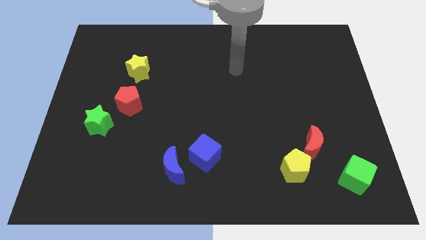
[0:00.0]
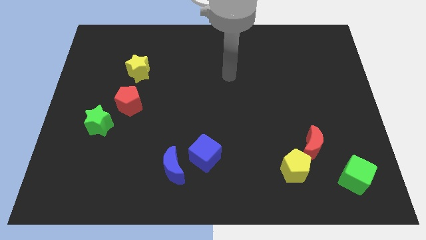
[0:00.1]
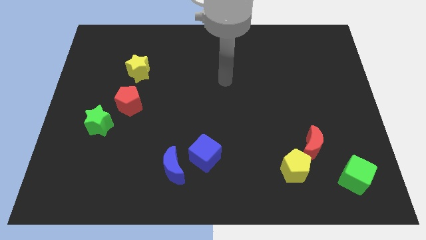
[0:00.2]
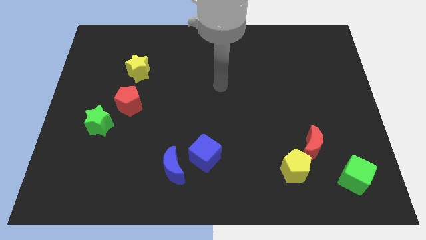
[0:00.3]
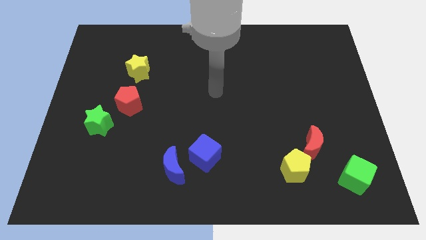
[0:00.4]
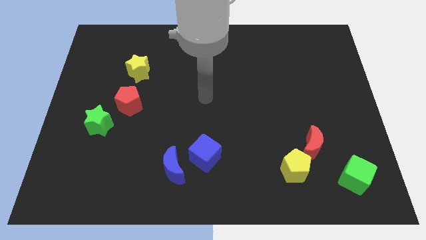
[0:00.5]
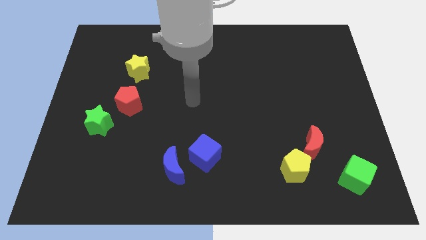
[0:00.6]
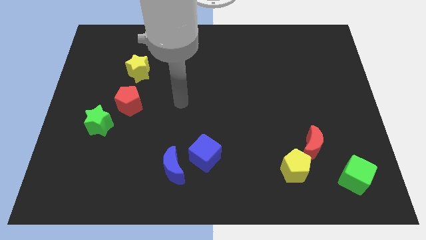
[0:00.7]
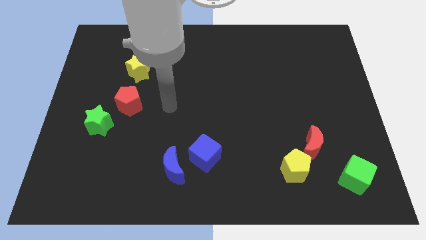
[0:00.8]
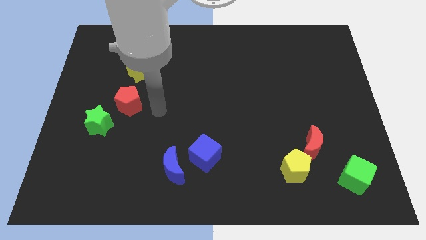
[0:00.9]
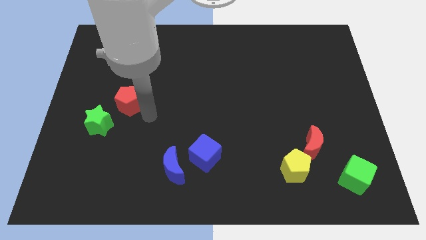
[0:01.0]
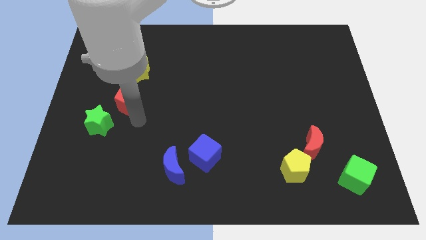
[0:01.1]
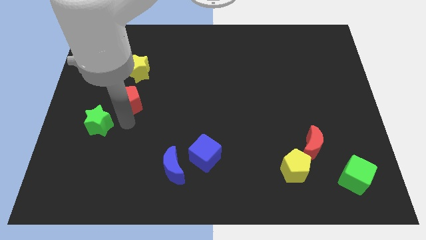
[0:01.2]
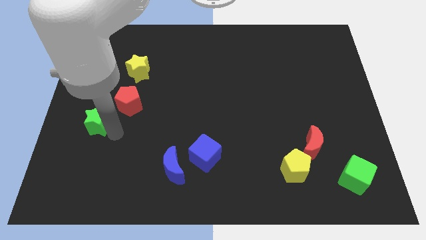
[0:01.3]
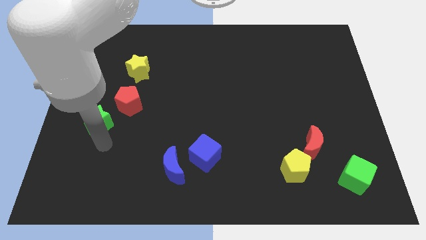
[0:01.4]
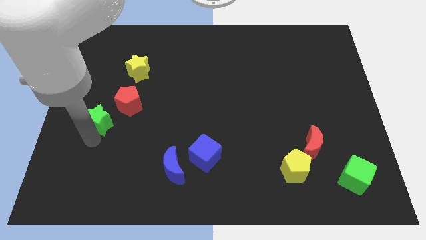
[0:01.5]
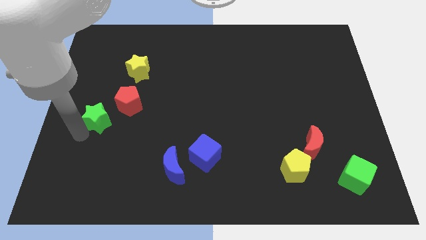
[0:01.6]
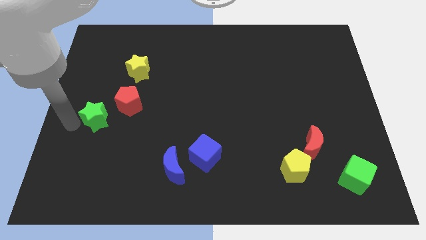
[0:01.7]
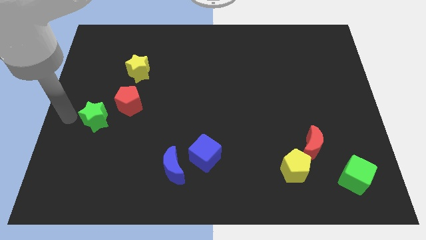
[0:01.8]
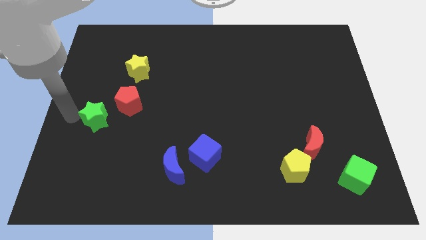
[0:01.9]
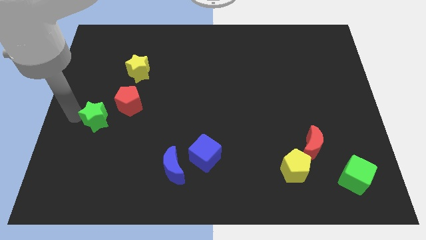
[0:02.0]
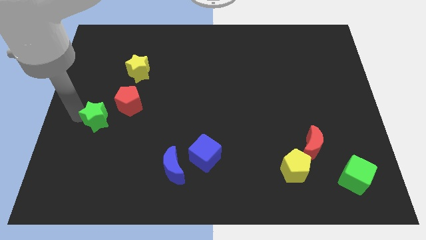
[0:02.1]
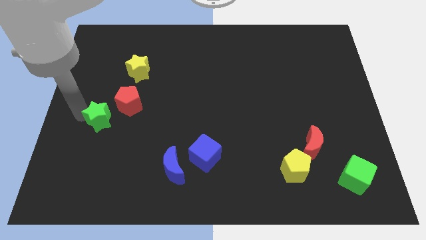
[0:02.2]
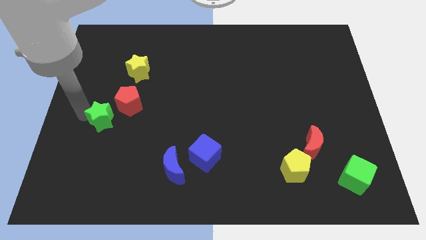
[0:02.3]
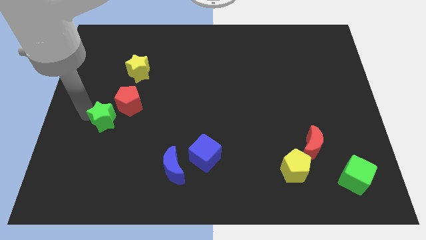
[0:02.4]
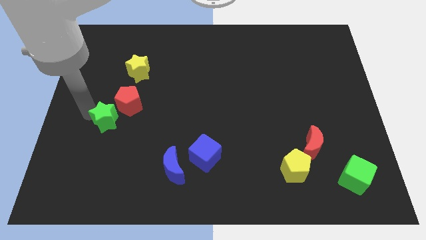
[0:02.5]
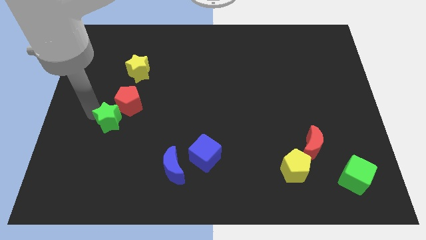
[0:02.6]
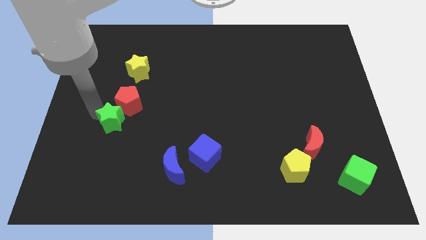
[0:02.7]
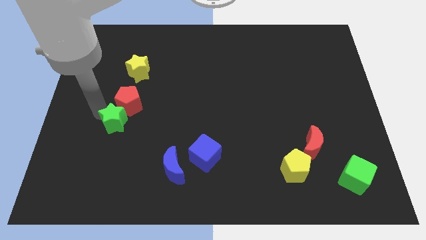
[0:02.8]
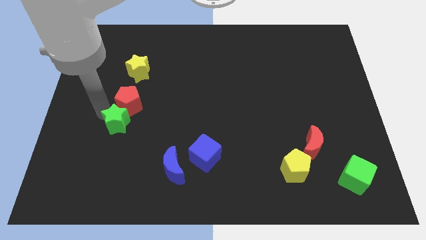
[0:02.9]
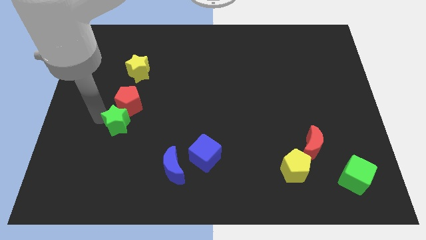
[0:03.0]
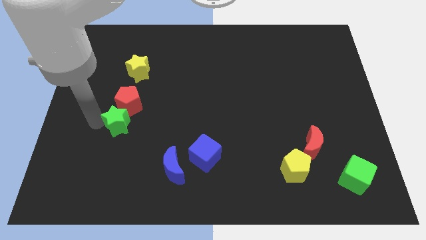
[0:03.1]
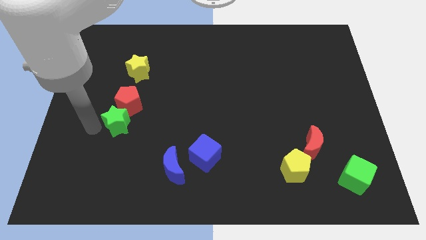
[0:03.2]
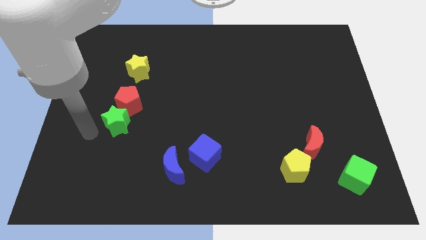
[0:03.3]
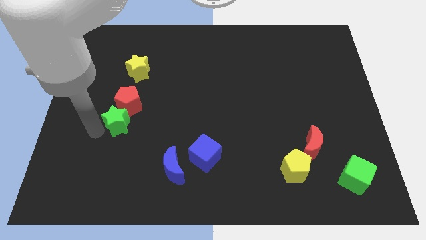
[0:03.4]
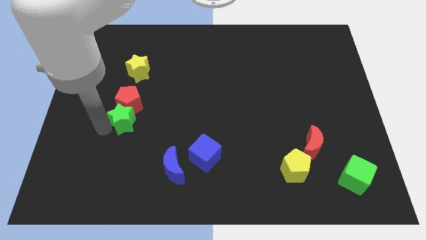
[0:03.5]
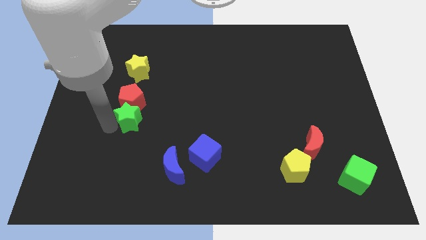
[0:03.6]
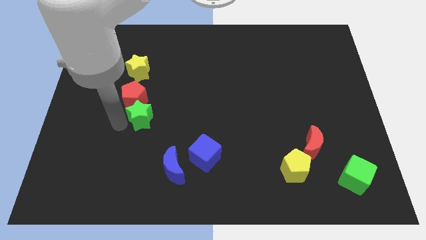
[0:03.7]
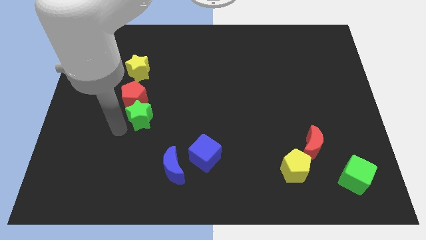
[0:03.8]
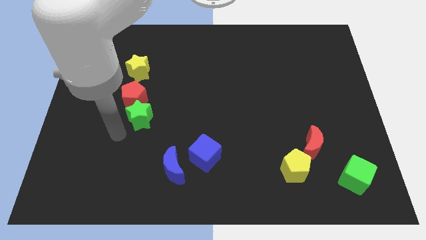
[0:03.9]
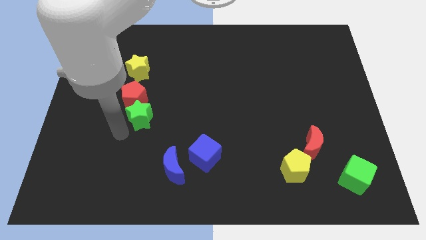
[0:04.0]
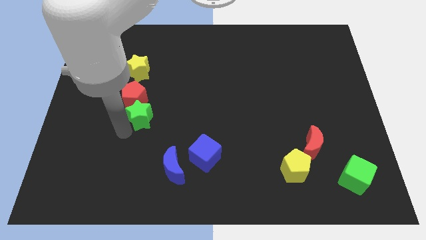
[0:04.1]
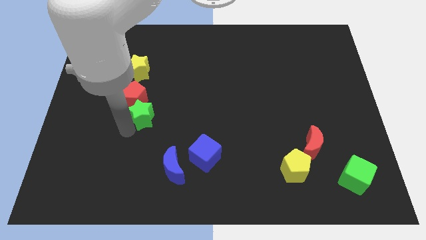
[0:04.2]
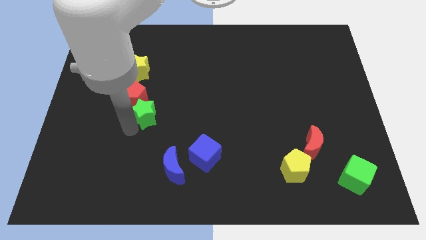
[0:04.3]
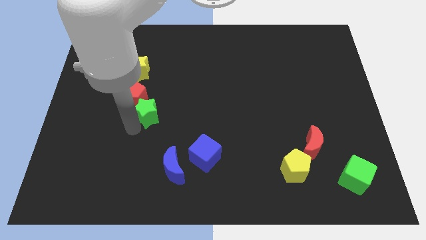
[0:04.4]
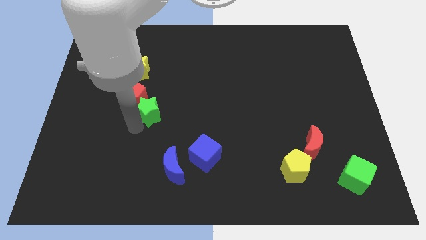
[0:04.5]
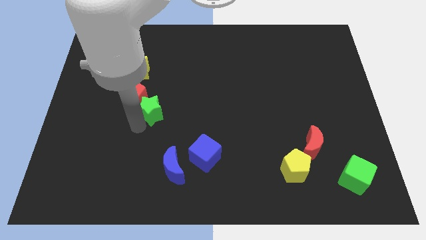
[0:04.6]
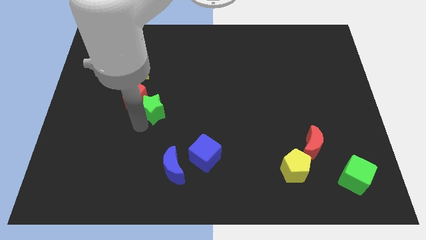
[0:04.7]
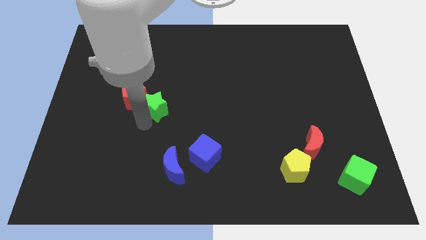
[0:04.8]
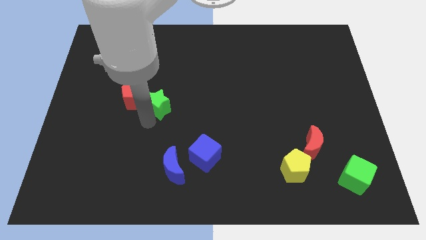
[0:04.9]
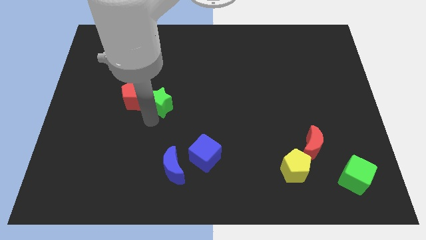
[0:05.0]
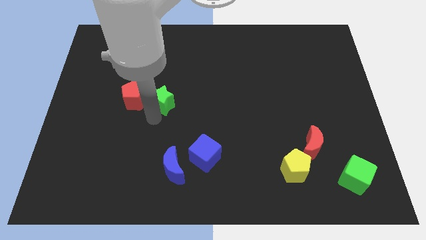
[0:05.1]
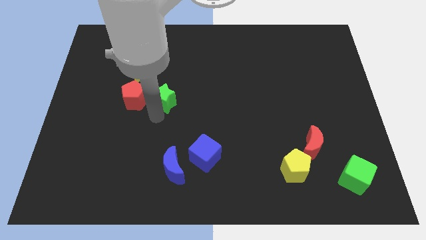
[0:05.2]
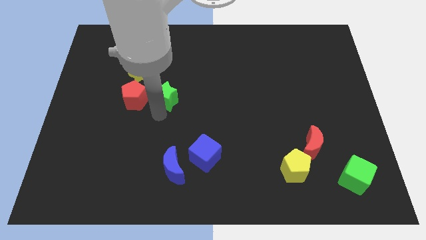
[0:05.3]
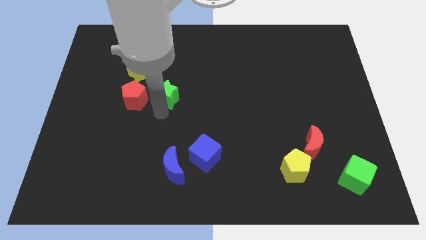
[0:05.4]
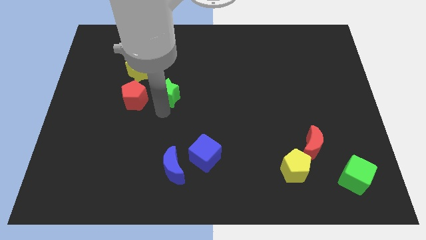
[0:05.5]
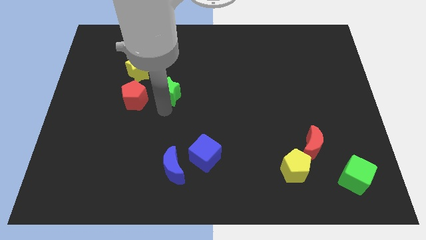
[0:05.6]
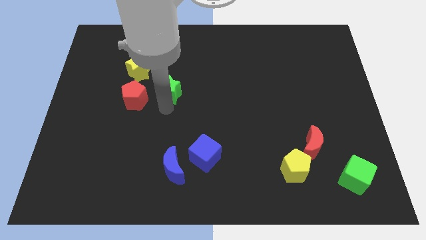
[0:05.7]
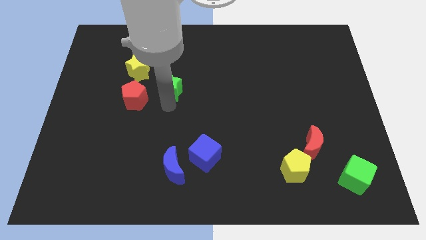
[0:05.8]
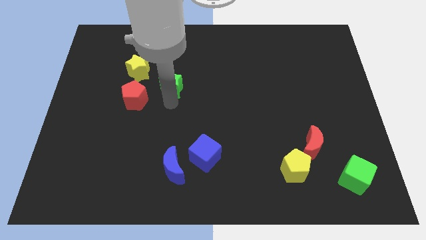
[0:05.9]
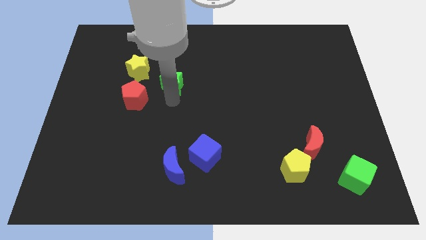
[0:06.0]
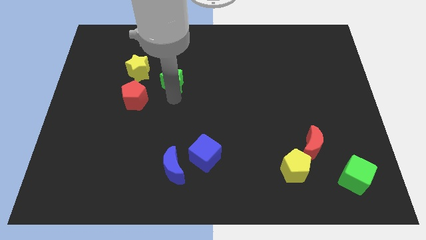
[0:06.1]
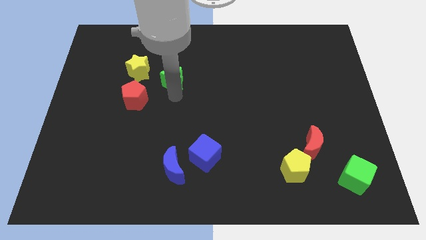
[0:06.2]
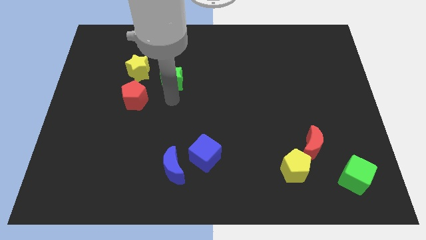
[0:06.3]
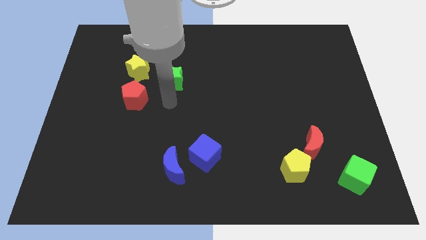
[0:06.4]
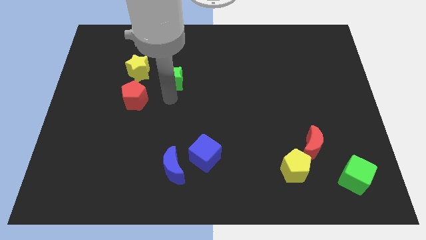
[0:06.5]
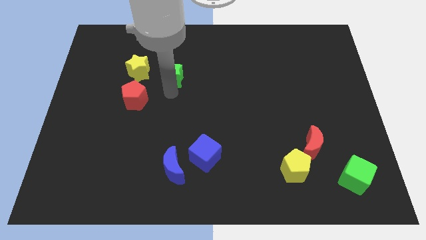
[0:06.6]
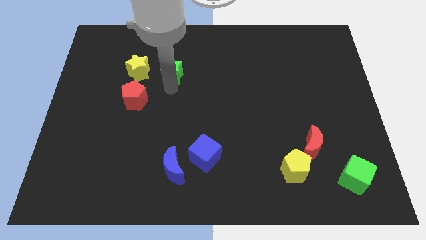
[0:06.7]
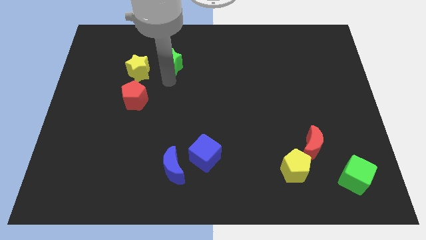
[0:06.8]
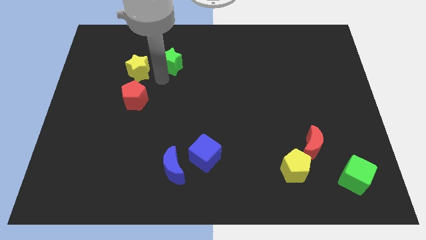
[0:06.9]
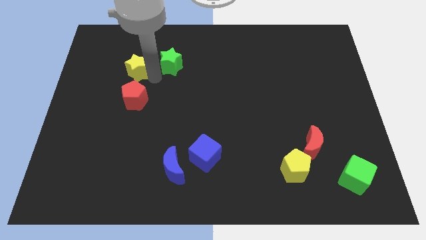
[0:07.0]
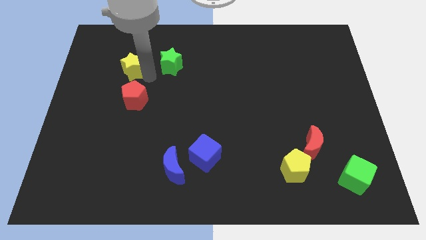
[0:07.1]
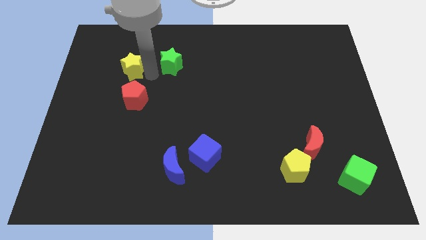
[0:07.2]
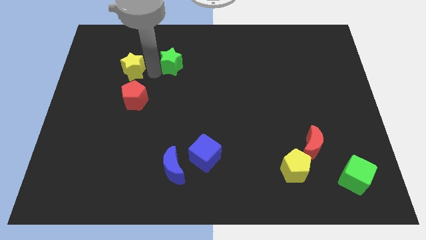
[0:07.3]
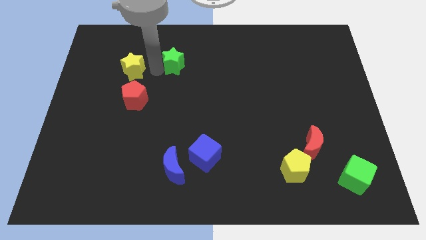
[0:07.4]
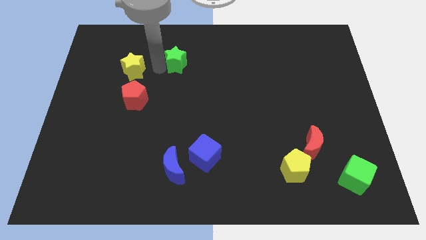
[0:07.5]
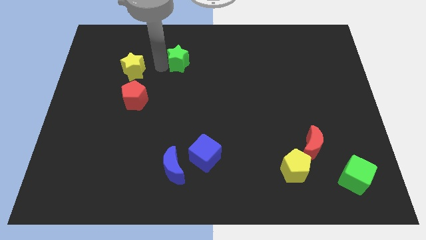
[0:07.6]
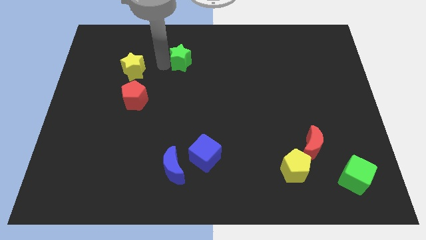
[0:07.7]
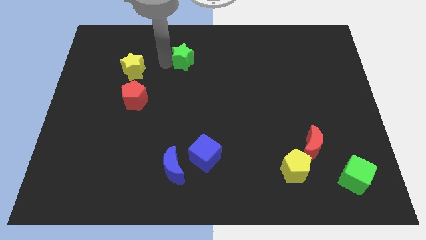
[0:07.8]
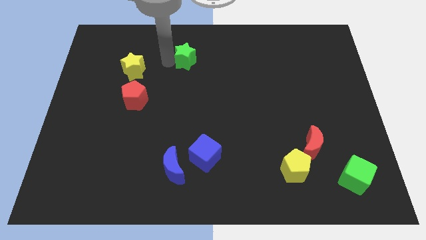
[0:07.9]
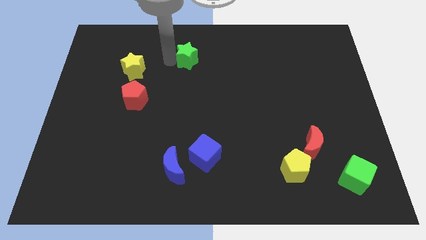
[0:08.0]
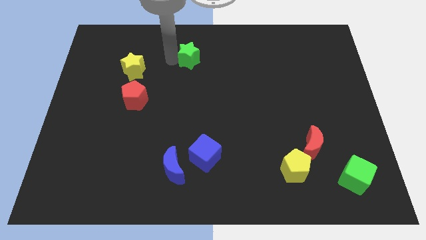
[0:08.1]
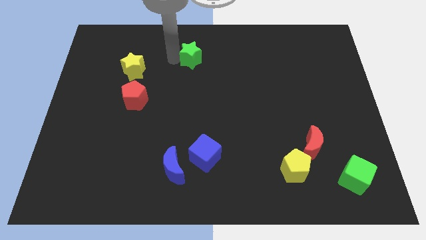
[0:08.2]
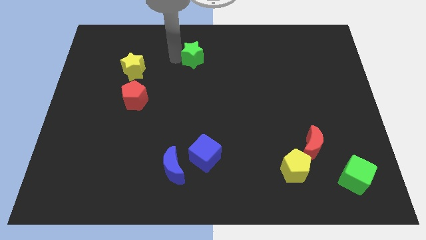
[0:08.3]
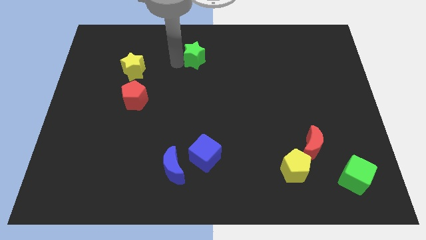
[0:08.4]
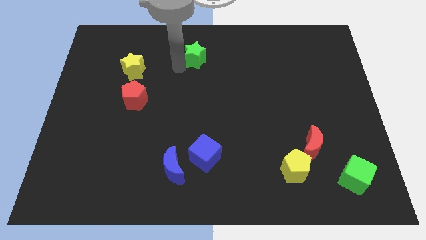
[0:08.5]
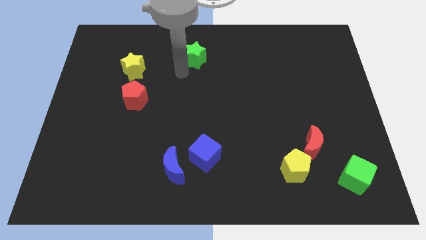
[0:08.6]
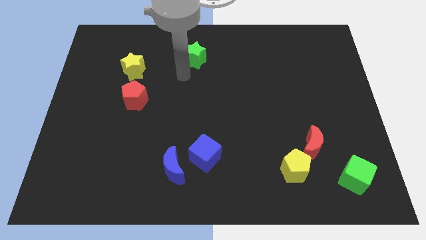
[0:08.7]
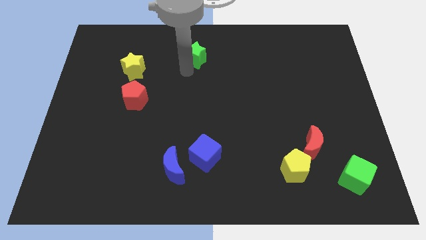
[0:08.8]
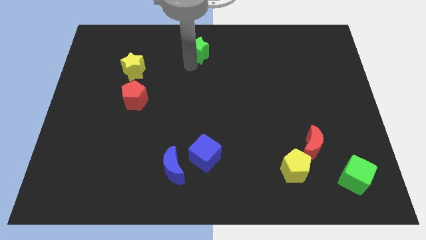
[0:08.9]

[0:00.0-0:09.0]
put the green star to the top side
